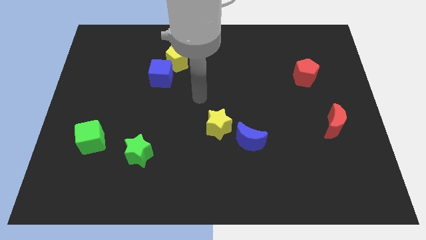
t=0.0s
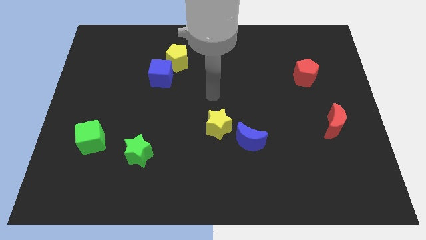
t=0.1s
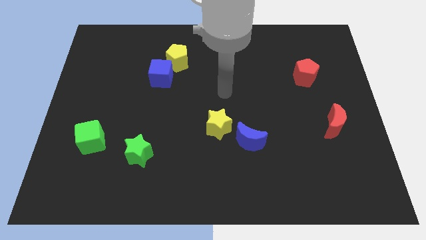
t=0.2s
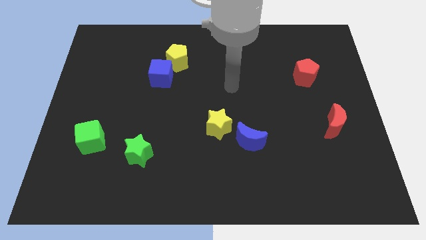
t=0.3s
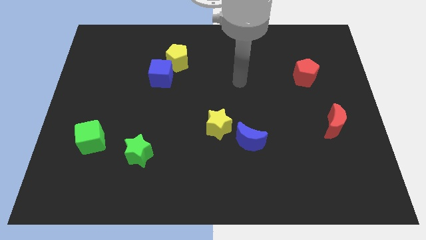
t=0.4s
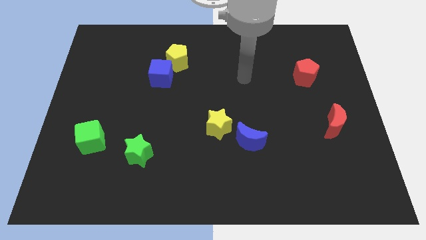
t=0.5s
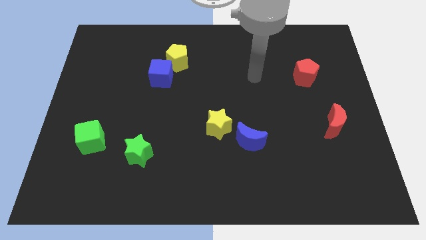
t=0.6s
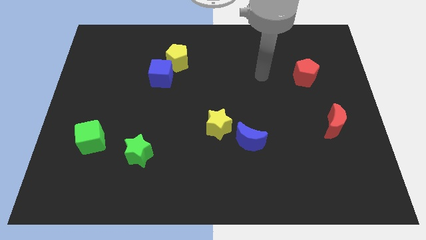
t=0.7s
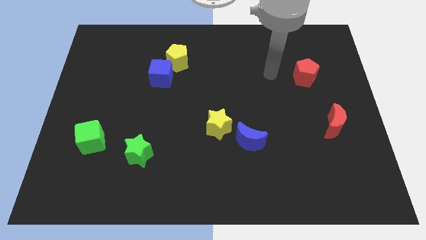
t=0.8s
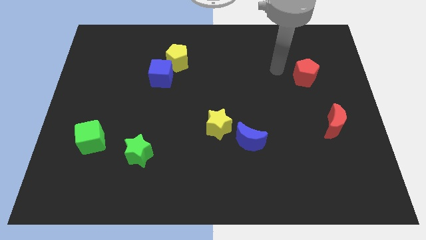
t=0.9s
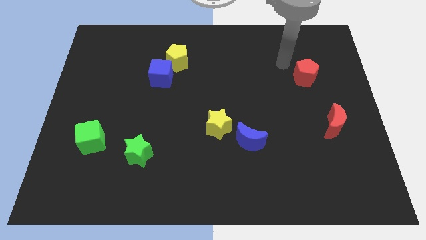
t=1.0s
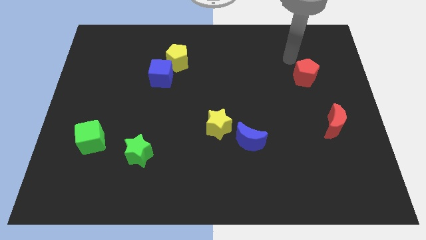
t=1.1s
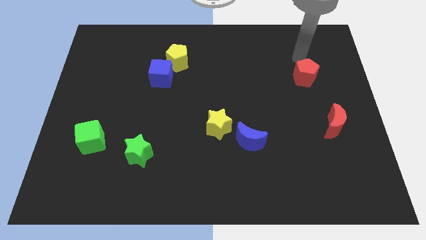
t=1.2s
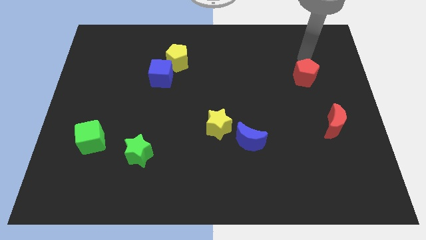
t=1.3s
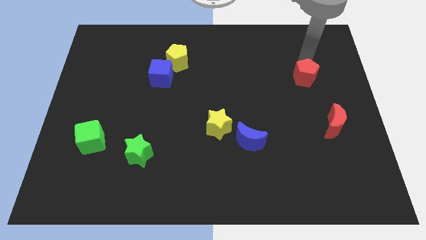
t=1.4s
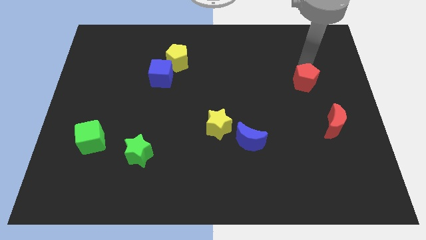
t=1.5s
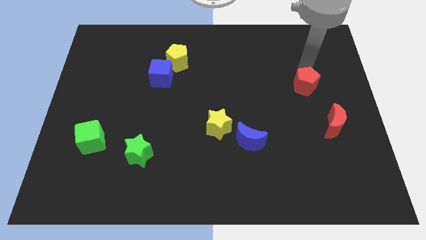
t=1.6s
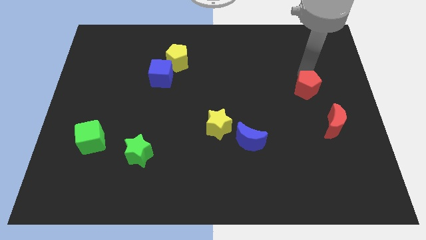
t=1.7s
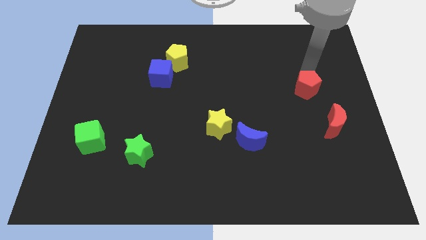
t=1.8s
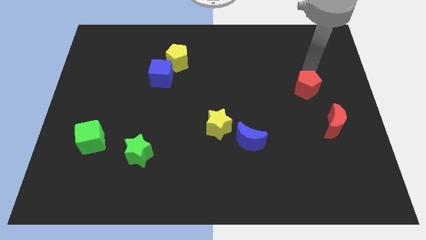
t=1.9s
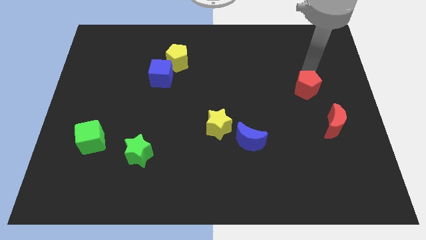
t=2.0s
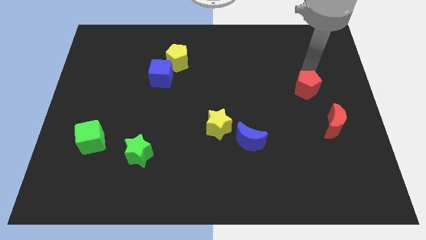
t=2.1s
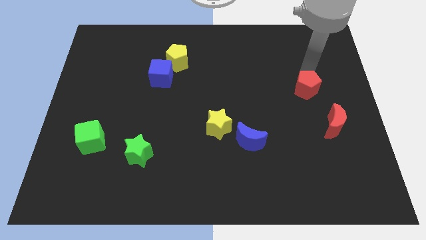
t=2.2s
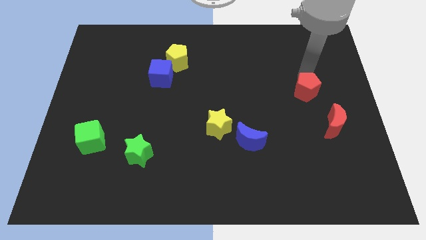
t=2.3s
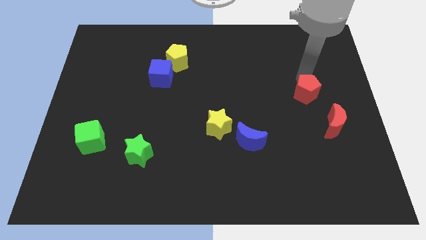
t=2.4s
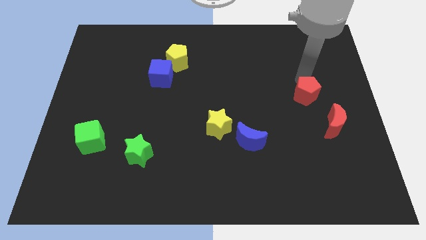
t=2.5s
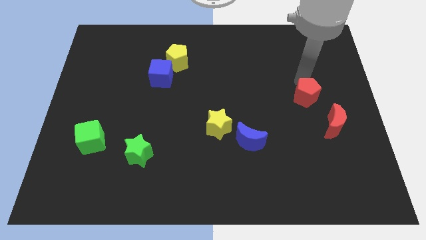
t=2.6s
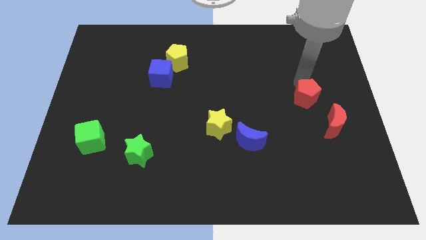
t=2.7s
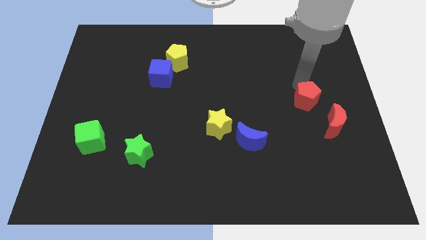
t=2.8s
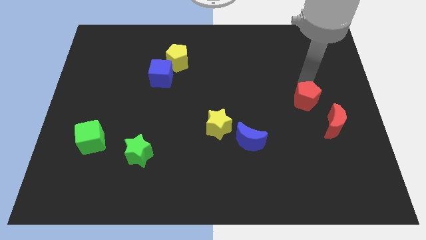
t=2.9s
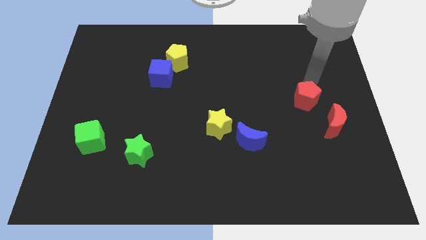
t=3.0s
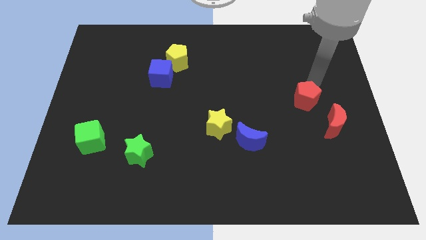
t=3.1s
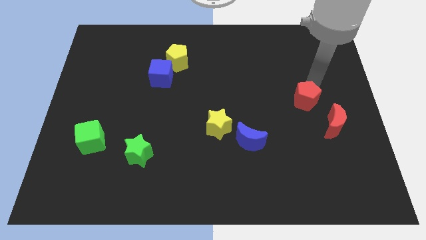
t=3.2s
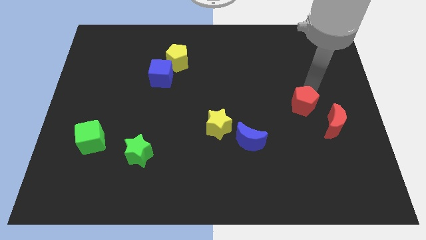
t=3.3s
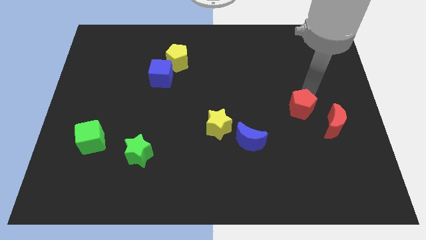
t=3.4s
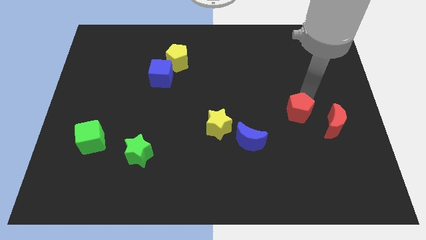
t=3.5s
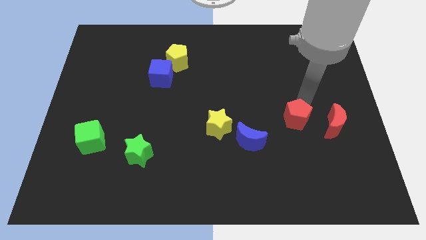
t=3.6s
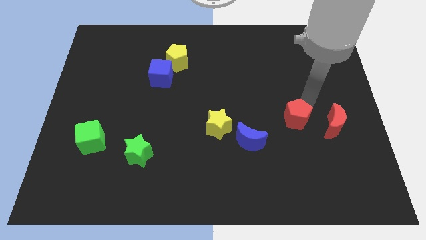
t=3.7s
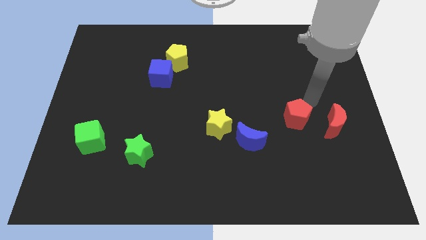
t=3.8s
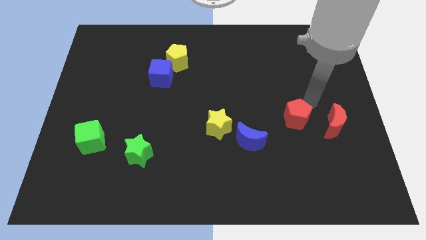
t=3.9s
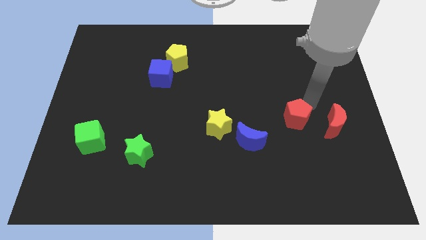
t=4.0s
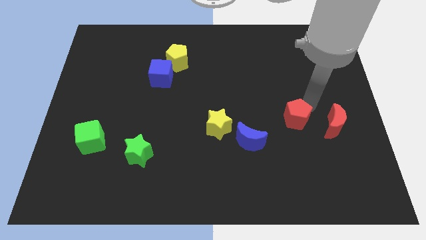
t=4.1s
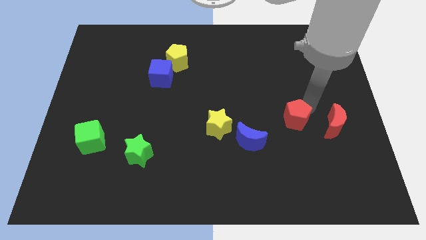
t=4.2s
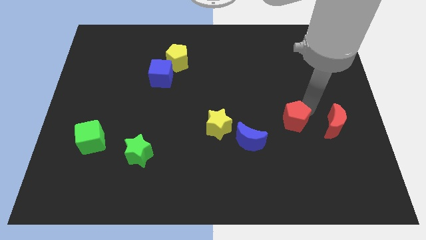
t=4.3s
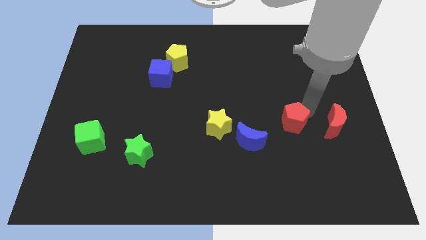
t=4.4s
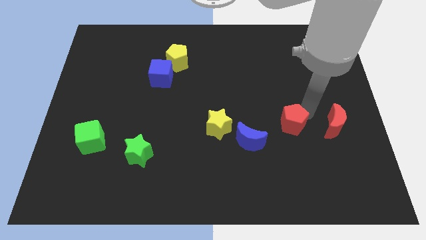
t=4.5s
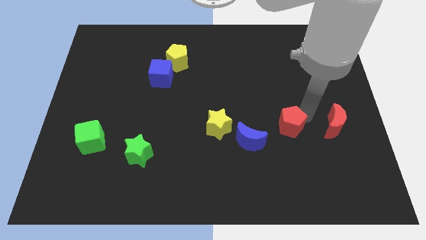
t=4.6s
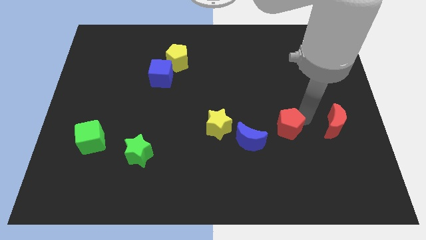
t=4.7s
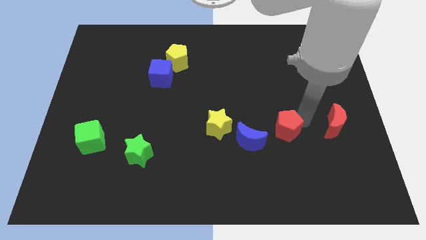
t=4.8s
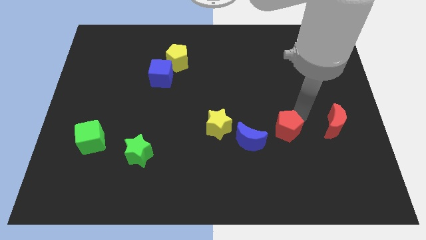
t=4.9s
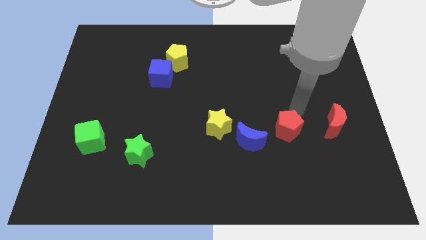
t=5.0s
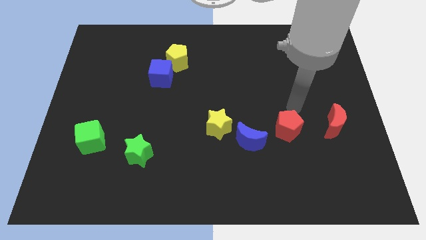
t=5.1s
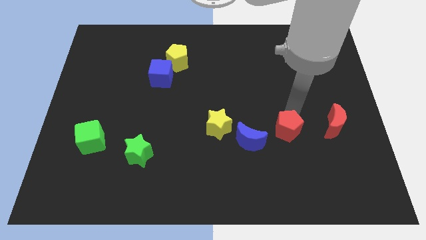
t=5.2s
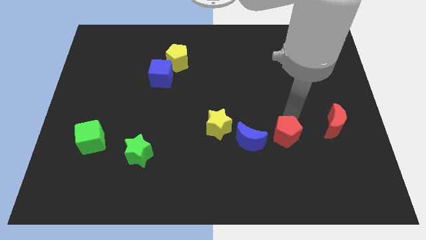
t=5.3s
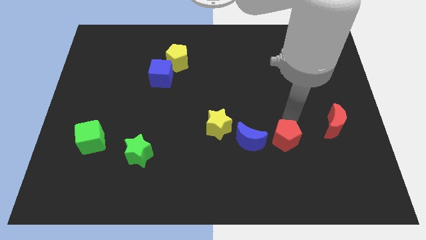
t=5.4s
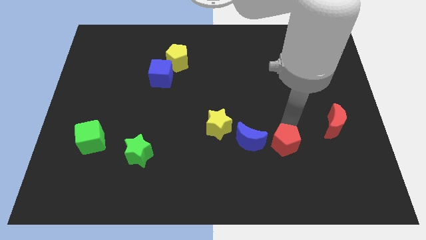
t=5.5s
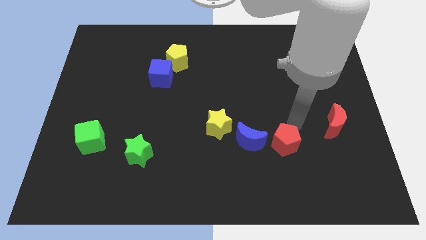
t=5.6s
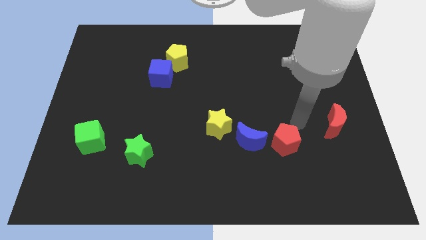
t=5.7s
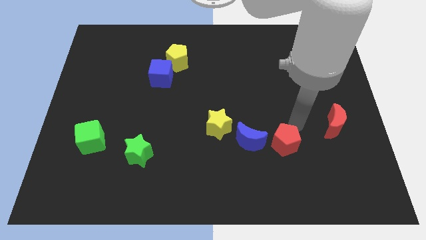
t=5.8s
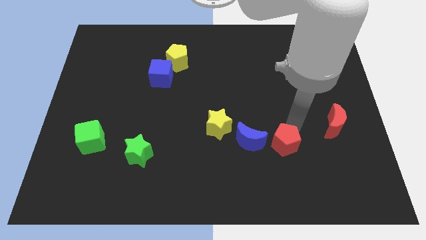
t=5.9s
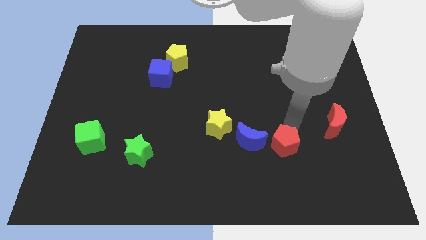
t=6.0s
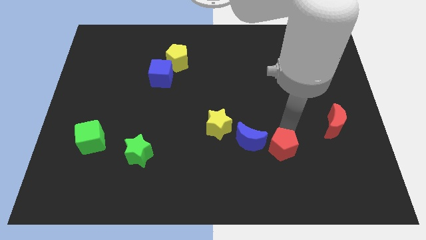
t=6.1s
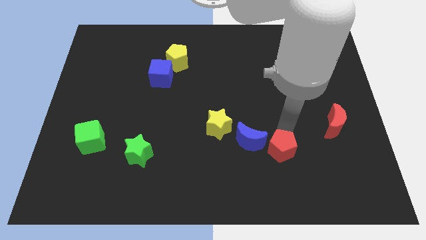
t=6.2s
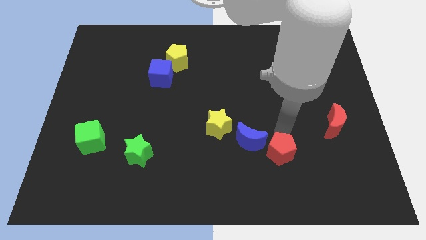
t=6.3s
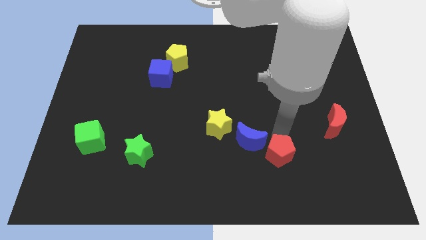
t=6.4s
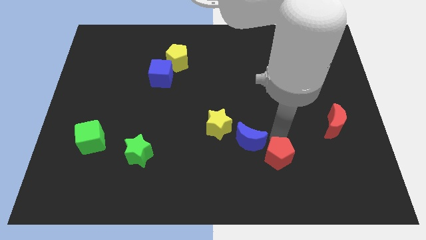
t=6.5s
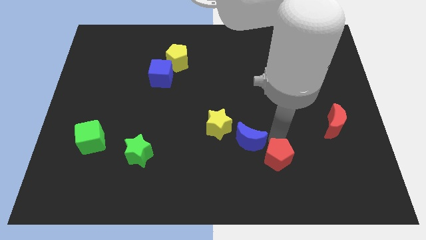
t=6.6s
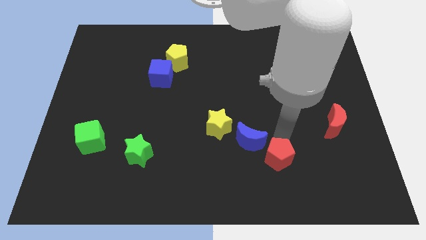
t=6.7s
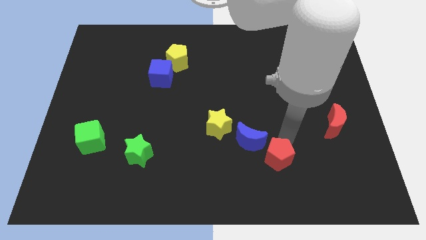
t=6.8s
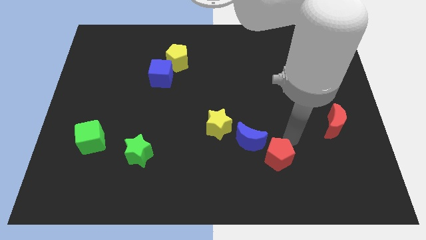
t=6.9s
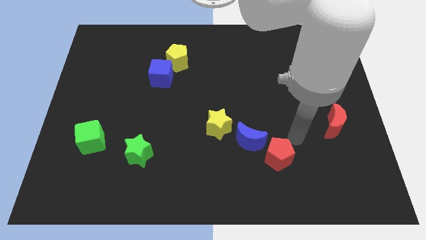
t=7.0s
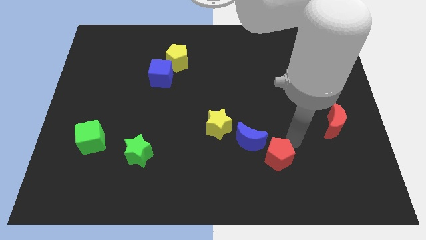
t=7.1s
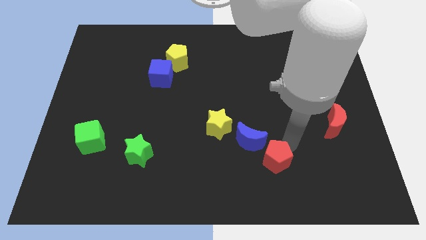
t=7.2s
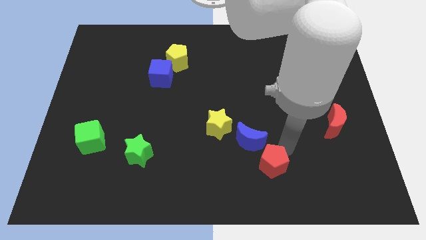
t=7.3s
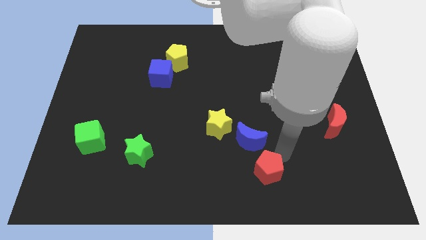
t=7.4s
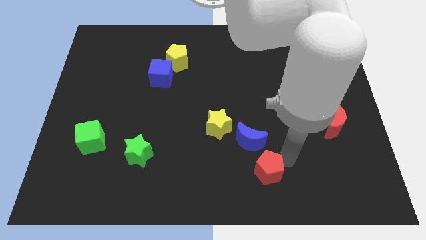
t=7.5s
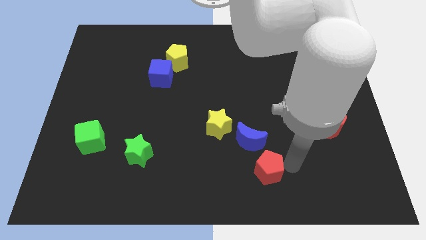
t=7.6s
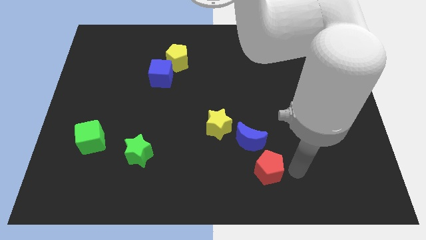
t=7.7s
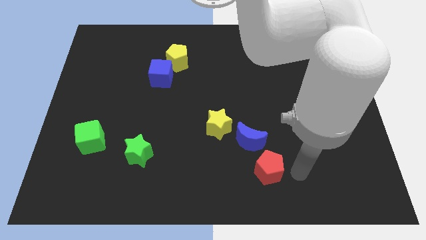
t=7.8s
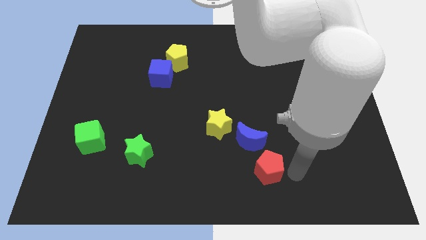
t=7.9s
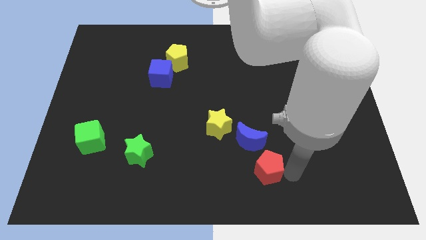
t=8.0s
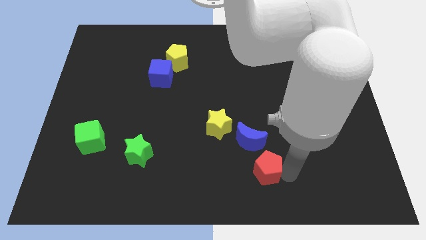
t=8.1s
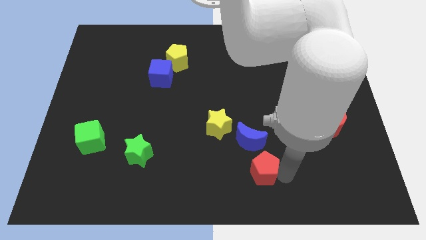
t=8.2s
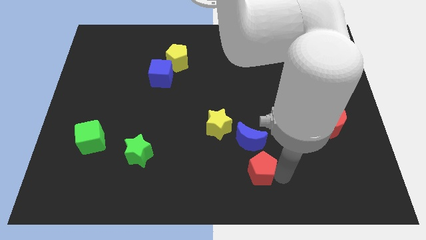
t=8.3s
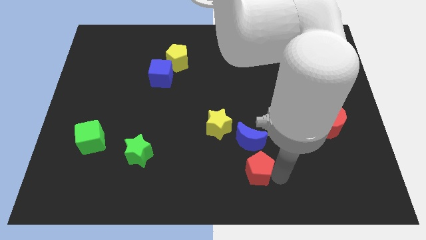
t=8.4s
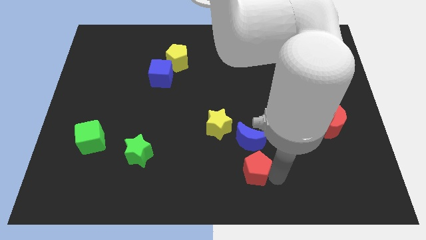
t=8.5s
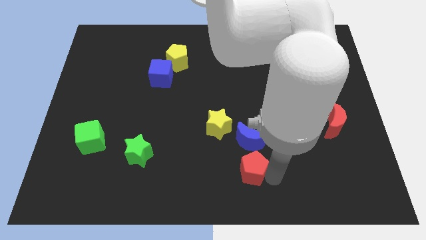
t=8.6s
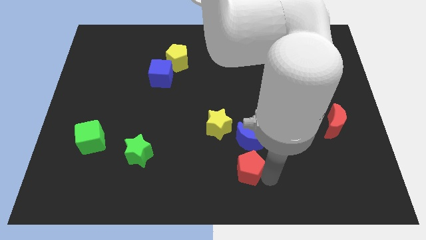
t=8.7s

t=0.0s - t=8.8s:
move the red pentagon diagonally down and to the left of the blue moon
